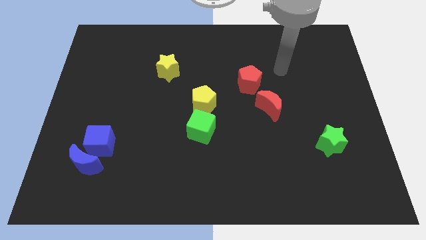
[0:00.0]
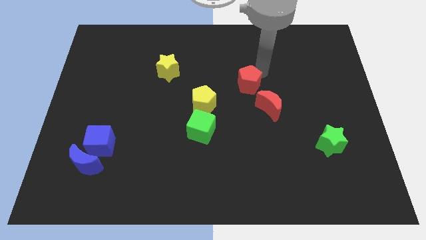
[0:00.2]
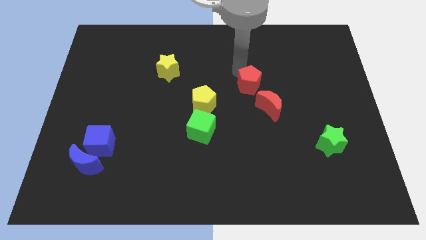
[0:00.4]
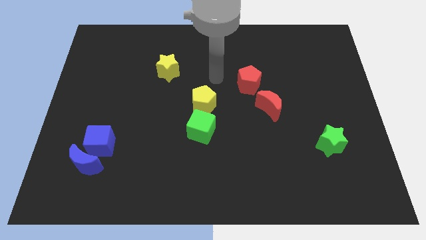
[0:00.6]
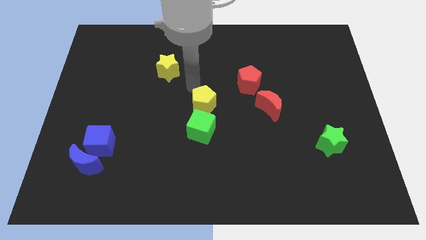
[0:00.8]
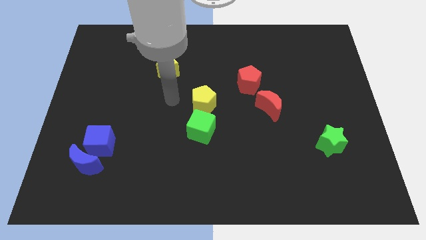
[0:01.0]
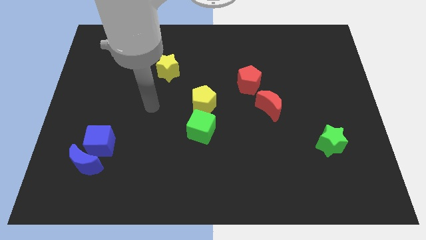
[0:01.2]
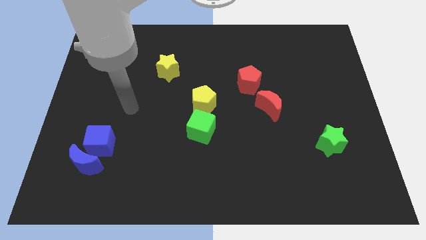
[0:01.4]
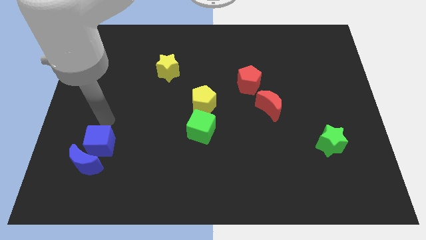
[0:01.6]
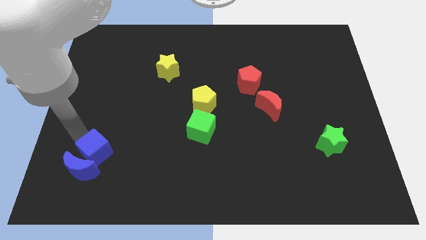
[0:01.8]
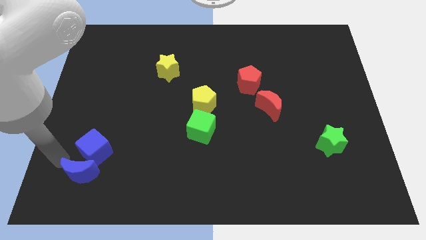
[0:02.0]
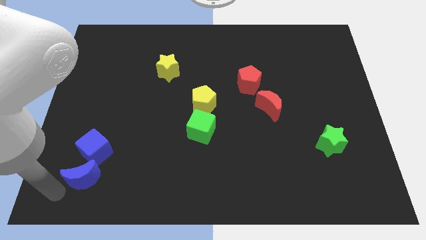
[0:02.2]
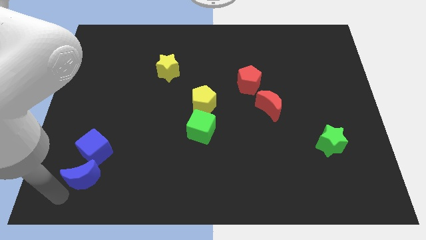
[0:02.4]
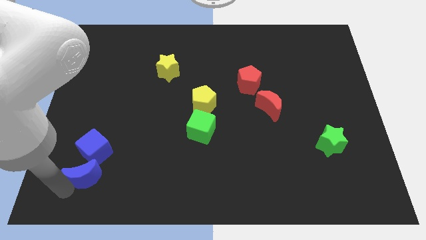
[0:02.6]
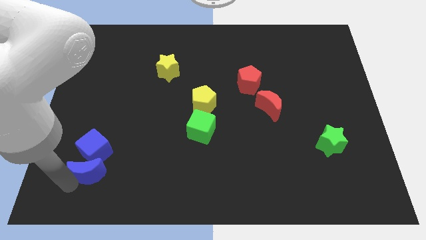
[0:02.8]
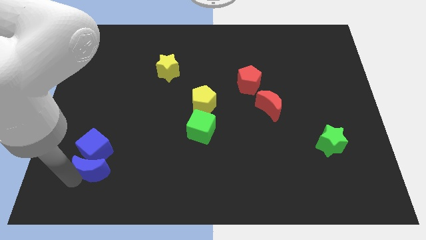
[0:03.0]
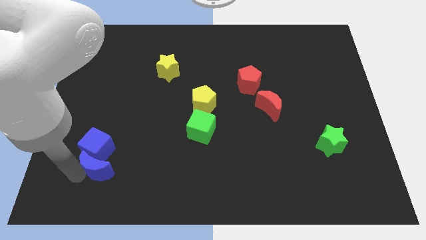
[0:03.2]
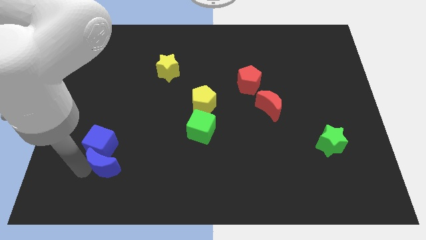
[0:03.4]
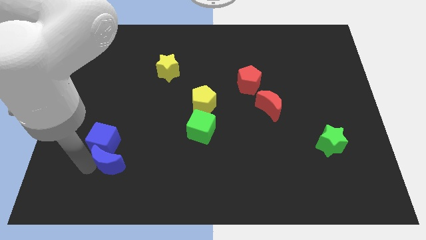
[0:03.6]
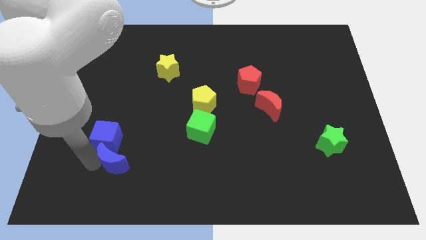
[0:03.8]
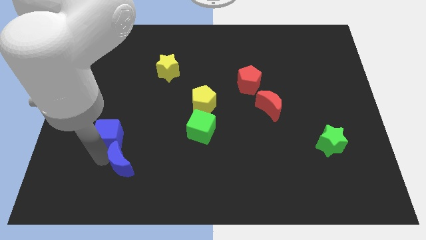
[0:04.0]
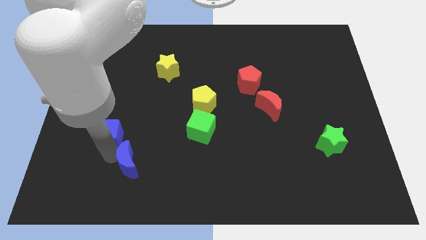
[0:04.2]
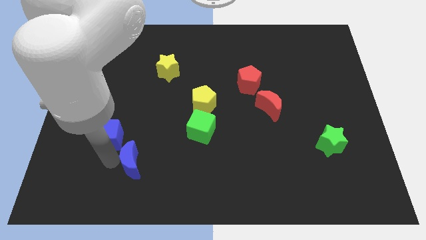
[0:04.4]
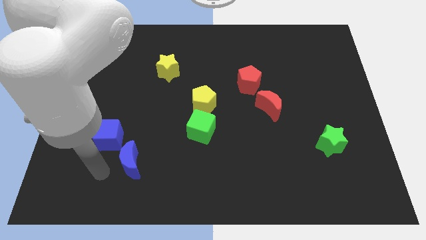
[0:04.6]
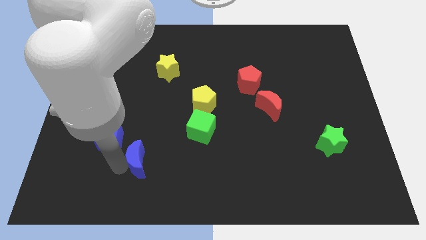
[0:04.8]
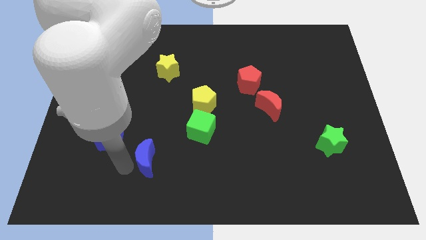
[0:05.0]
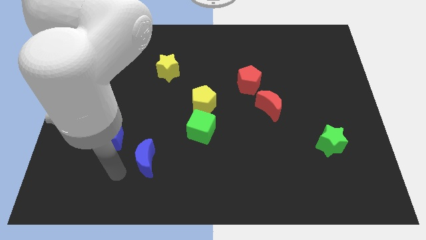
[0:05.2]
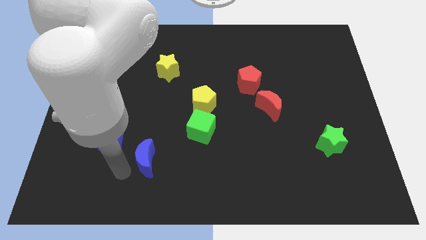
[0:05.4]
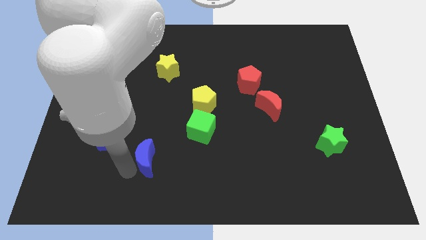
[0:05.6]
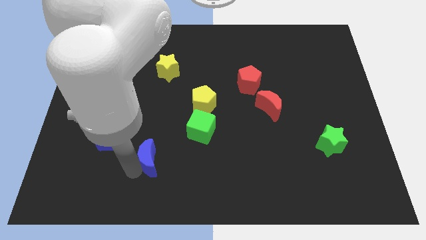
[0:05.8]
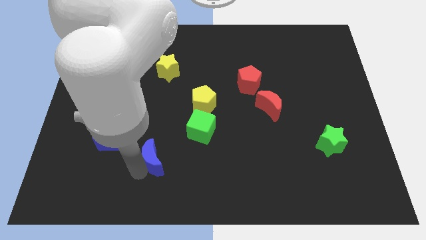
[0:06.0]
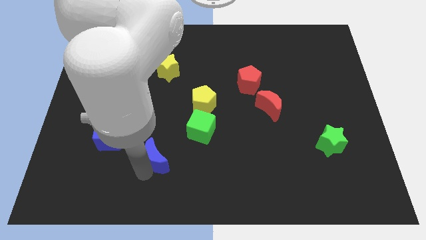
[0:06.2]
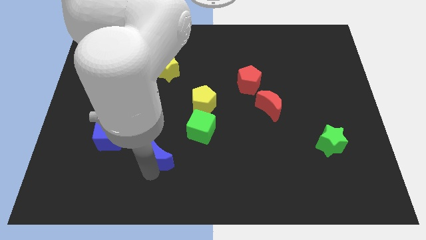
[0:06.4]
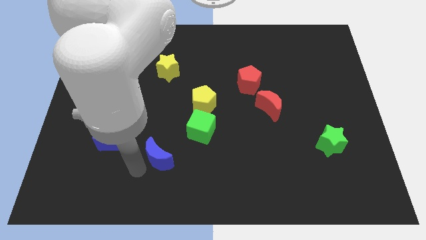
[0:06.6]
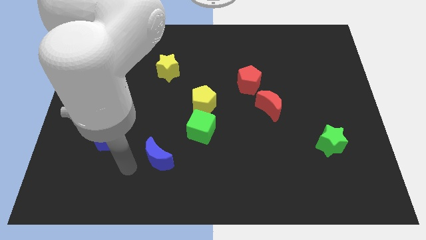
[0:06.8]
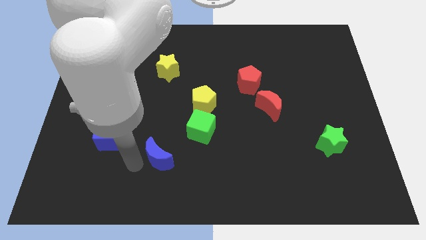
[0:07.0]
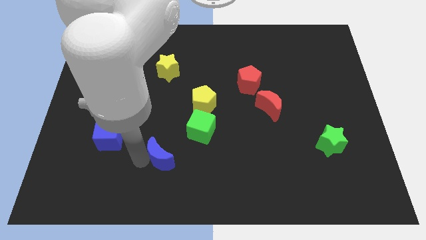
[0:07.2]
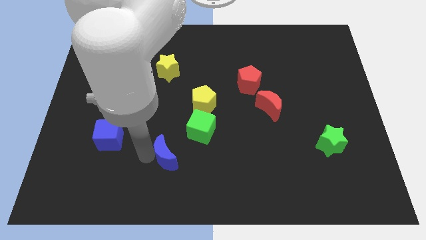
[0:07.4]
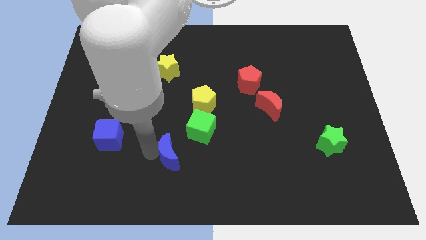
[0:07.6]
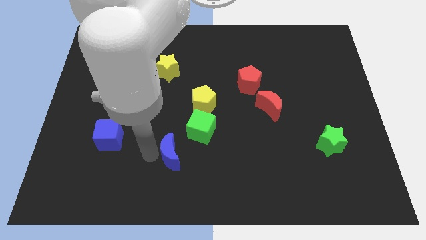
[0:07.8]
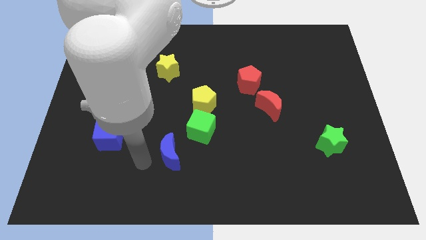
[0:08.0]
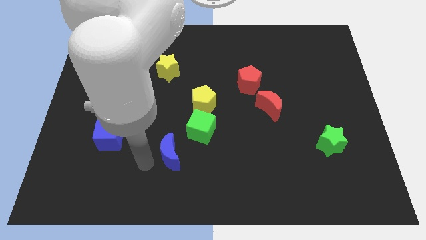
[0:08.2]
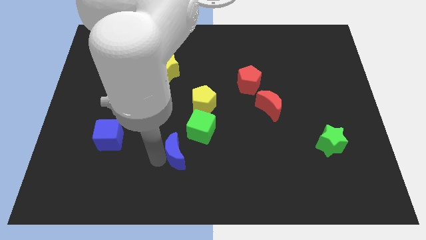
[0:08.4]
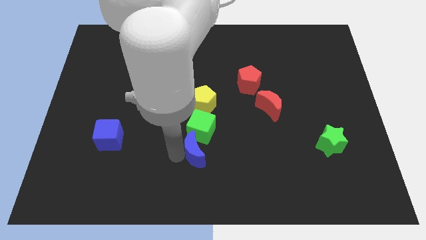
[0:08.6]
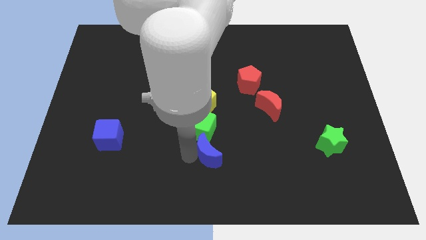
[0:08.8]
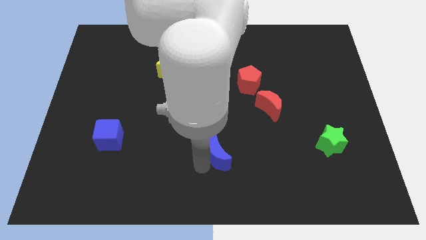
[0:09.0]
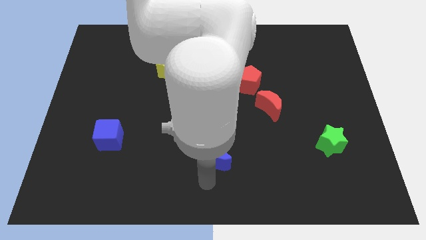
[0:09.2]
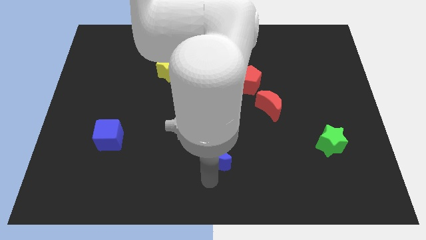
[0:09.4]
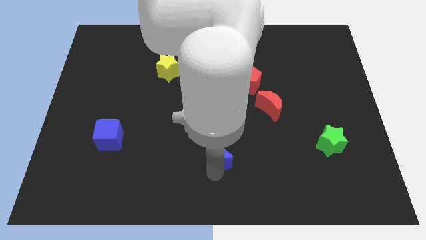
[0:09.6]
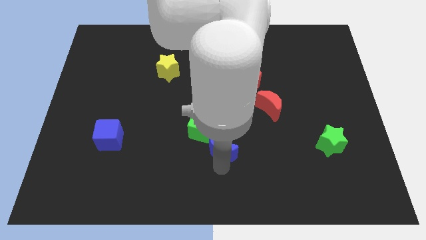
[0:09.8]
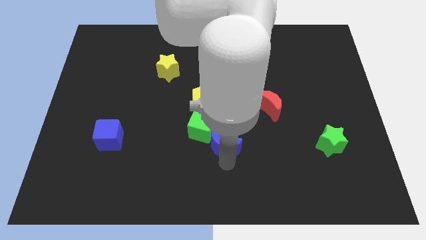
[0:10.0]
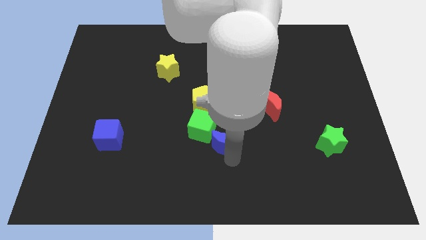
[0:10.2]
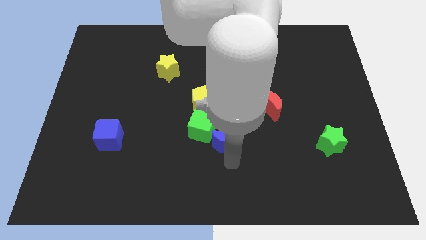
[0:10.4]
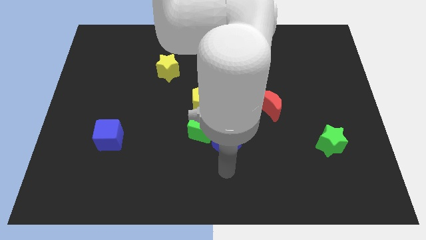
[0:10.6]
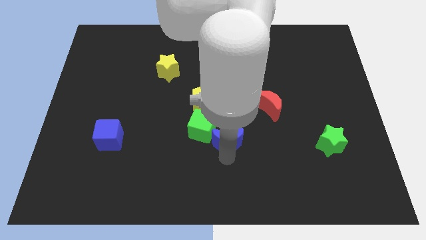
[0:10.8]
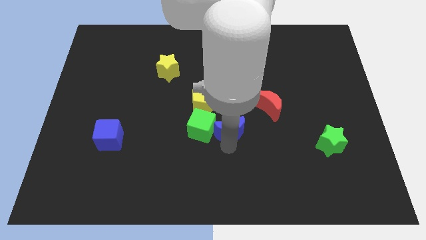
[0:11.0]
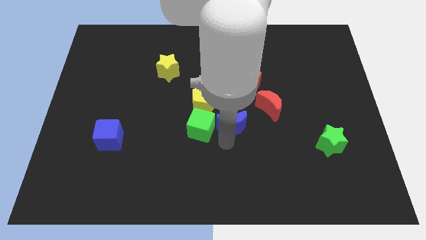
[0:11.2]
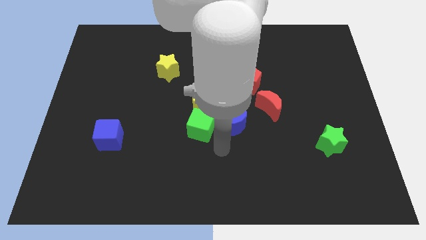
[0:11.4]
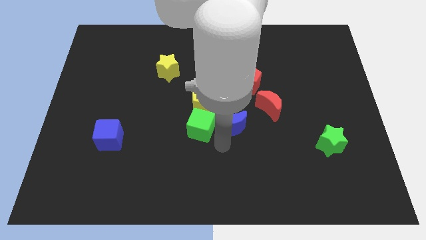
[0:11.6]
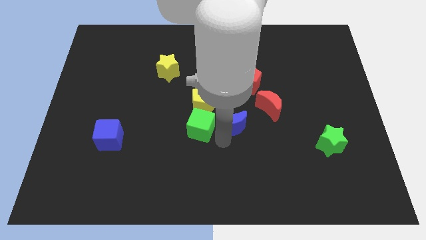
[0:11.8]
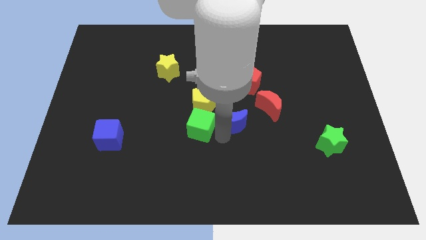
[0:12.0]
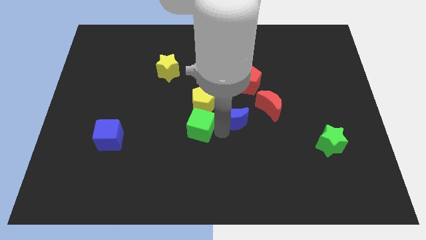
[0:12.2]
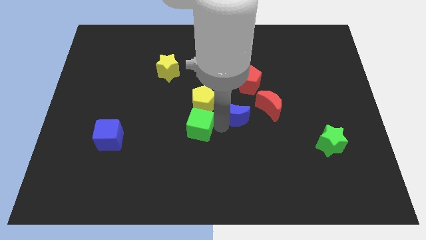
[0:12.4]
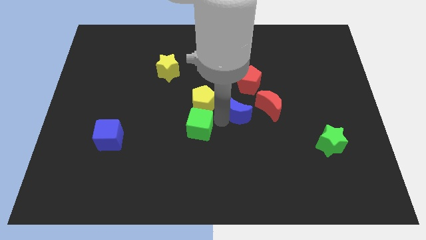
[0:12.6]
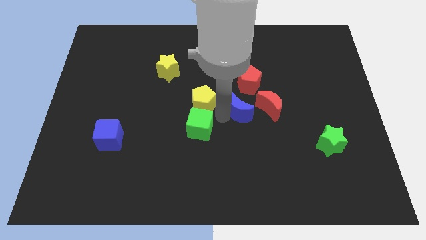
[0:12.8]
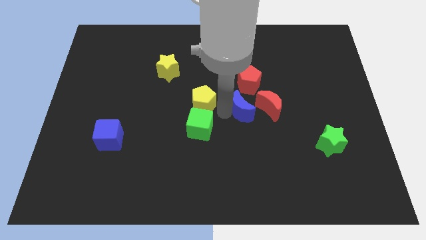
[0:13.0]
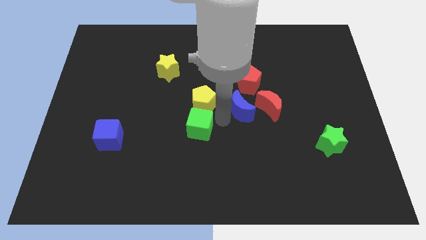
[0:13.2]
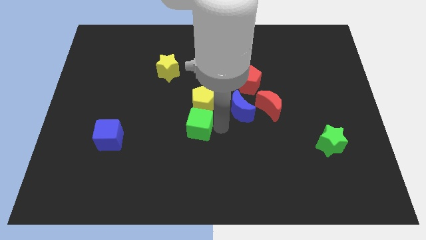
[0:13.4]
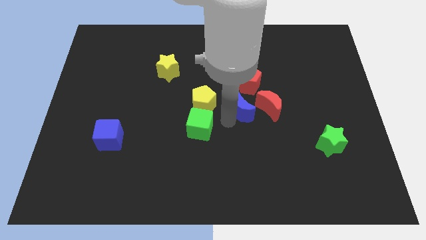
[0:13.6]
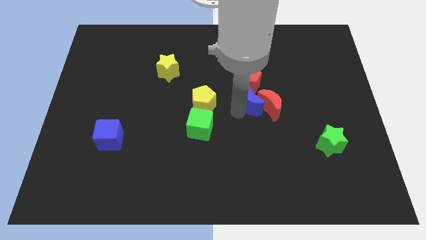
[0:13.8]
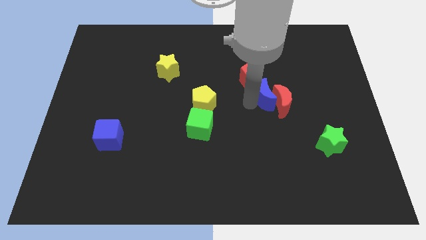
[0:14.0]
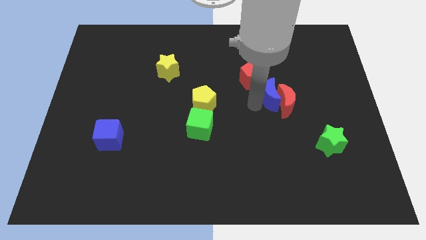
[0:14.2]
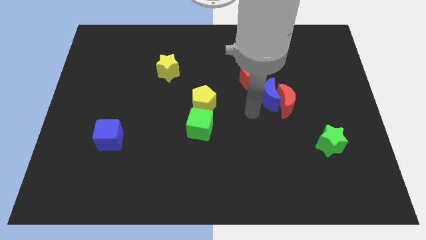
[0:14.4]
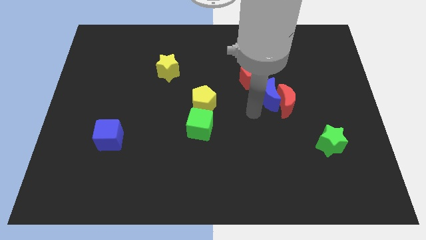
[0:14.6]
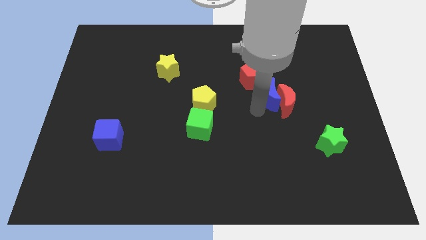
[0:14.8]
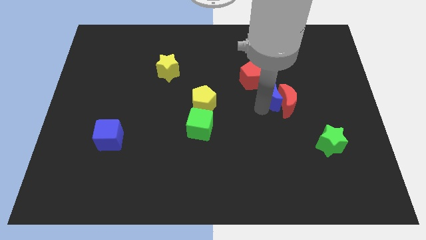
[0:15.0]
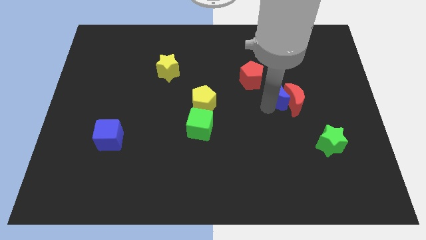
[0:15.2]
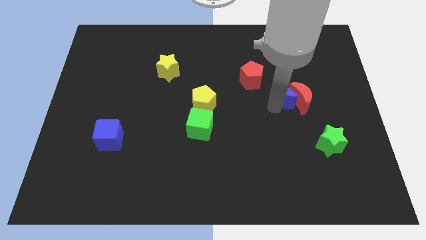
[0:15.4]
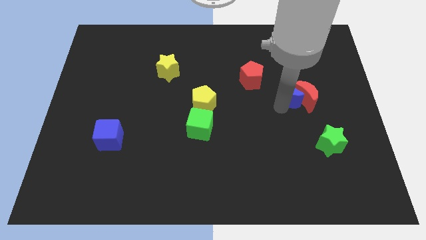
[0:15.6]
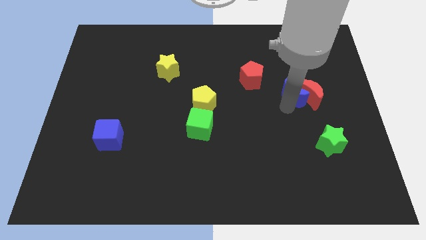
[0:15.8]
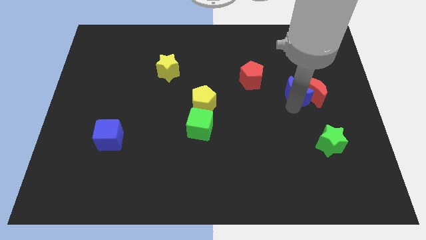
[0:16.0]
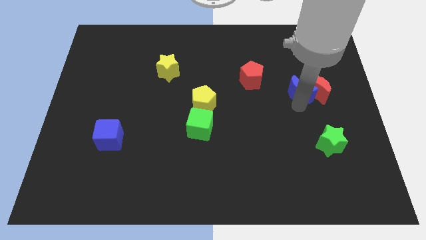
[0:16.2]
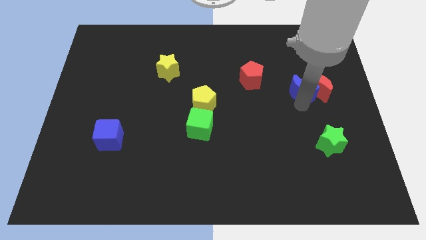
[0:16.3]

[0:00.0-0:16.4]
slide the blue moon to the right side of the red pentagon
